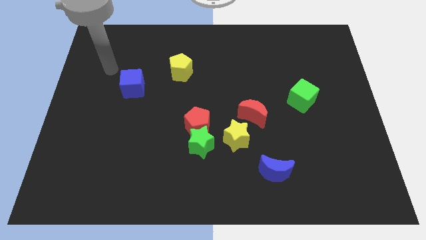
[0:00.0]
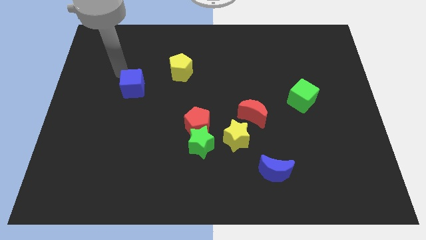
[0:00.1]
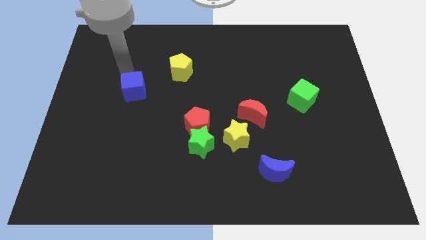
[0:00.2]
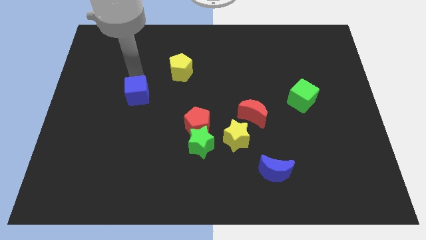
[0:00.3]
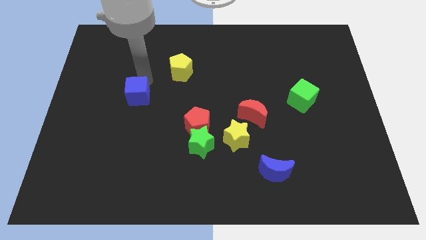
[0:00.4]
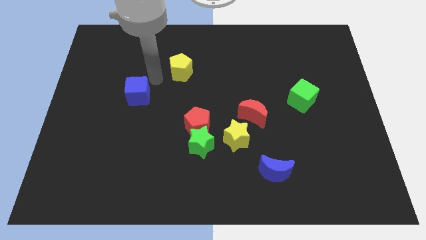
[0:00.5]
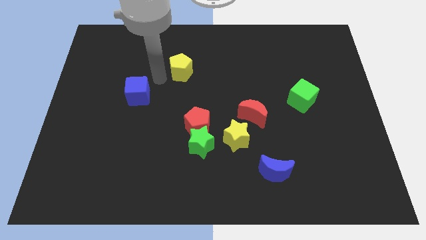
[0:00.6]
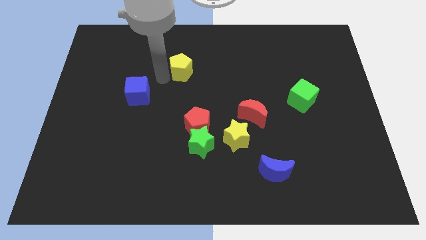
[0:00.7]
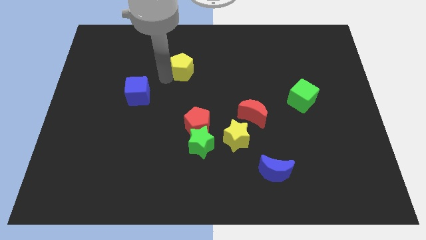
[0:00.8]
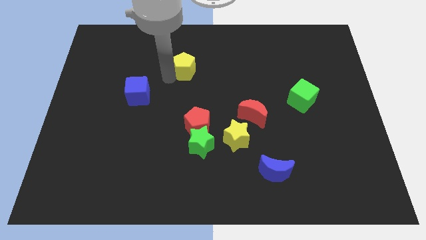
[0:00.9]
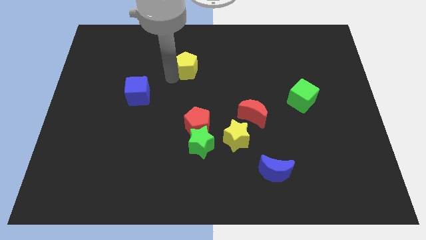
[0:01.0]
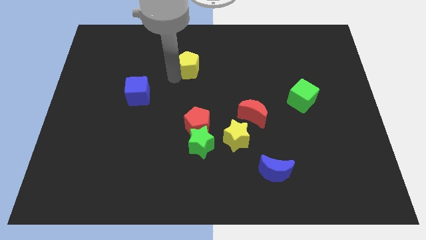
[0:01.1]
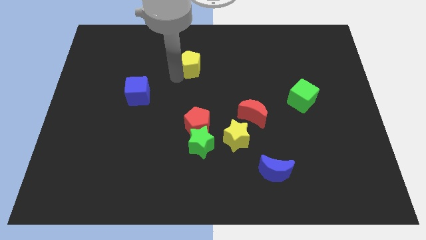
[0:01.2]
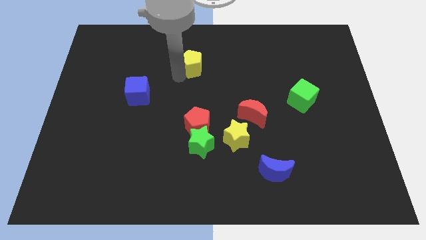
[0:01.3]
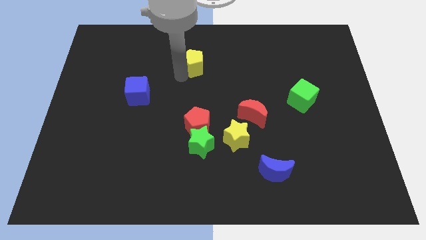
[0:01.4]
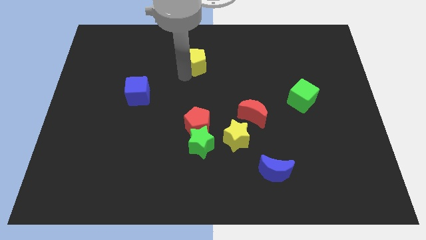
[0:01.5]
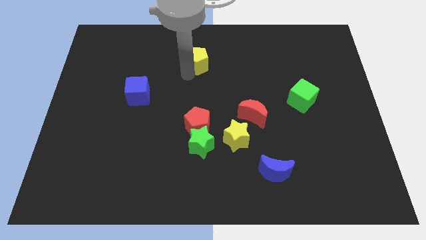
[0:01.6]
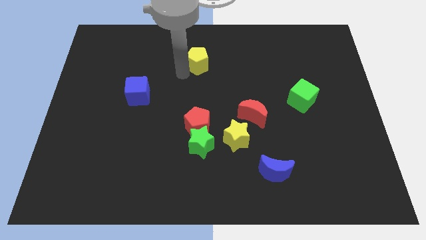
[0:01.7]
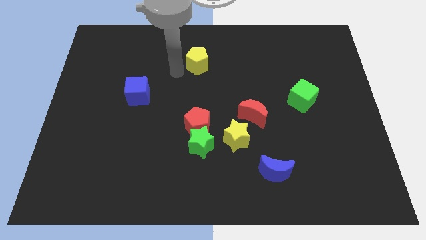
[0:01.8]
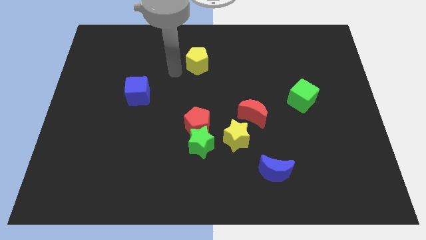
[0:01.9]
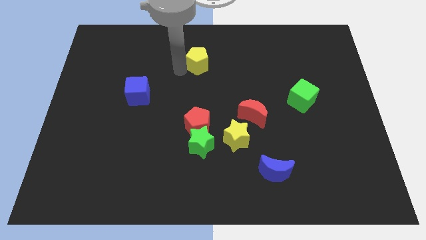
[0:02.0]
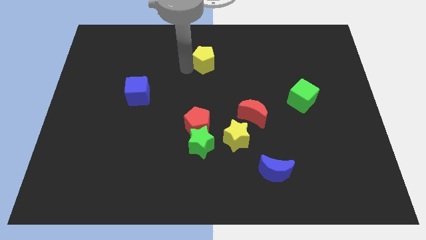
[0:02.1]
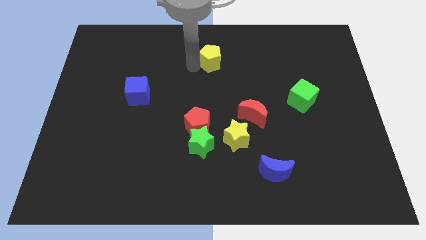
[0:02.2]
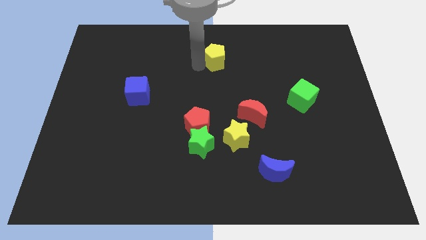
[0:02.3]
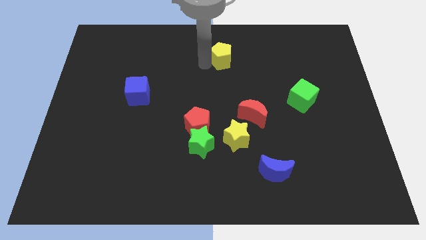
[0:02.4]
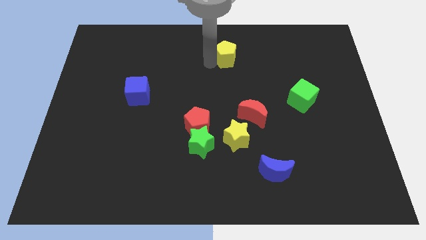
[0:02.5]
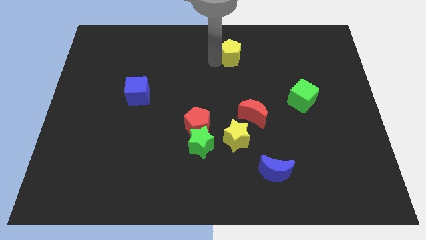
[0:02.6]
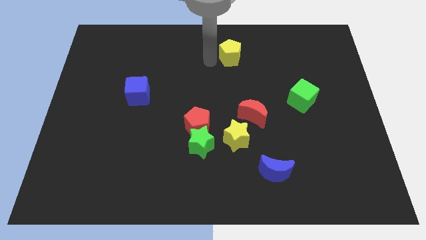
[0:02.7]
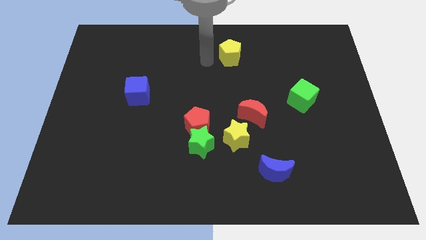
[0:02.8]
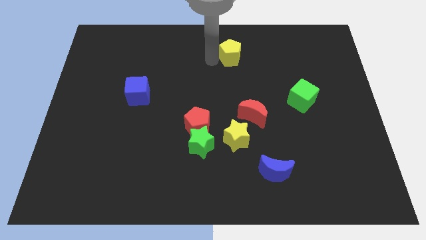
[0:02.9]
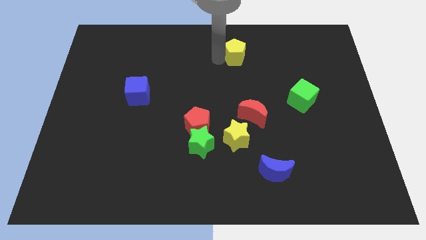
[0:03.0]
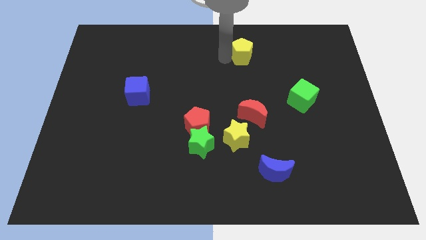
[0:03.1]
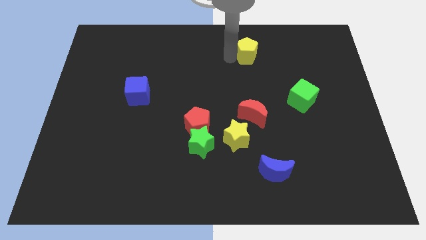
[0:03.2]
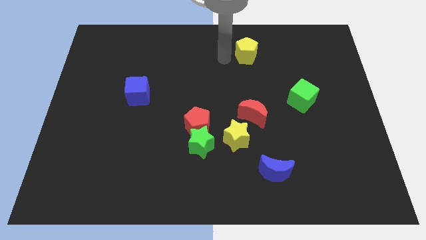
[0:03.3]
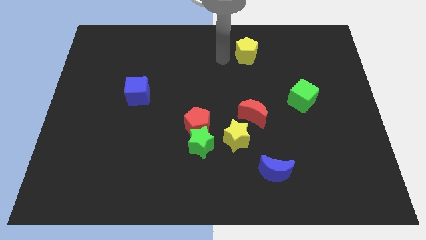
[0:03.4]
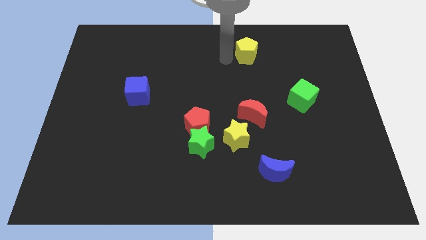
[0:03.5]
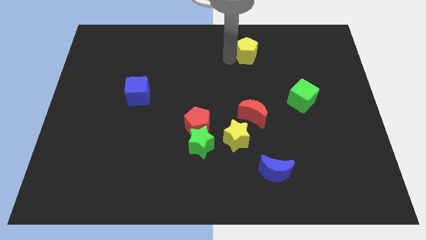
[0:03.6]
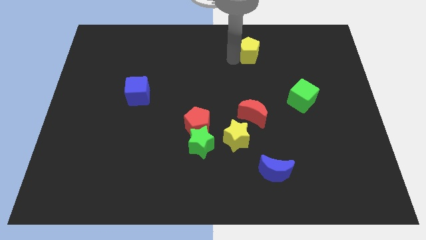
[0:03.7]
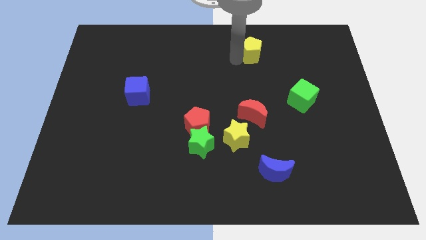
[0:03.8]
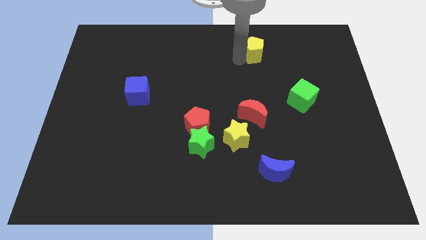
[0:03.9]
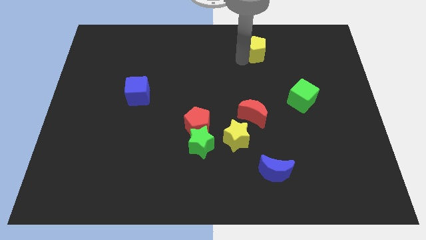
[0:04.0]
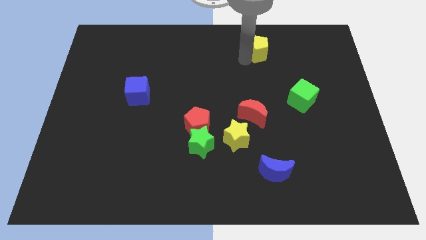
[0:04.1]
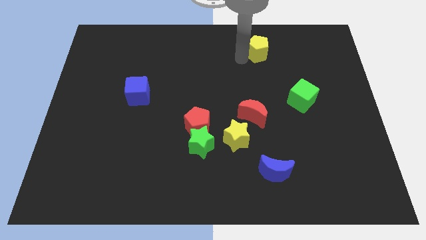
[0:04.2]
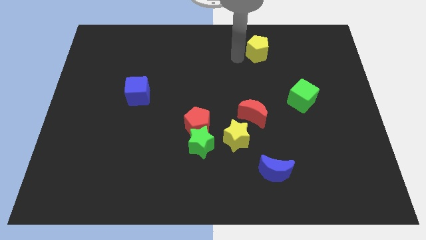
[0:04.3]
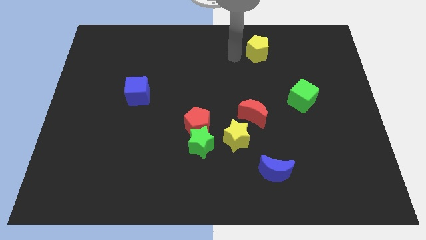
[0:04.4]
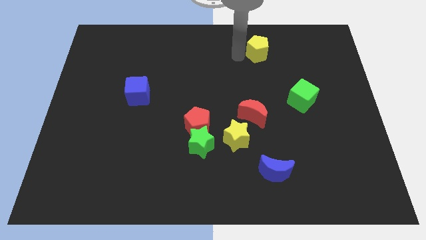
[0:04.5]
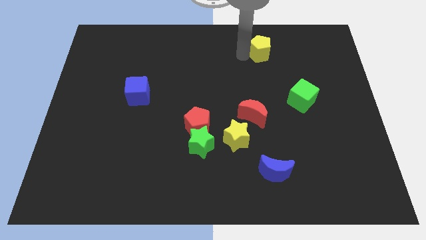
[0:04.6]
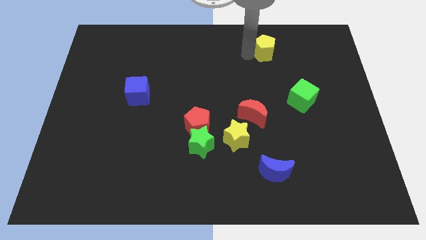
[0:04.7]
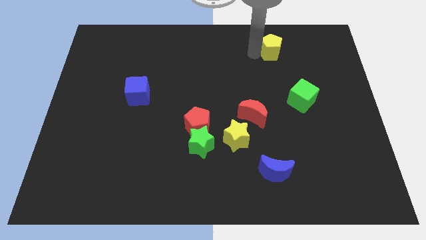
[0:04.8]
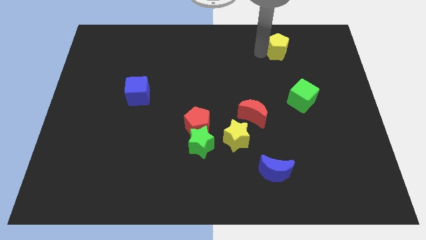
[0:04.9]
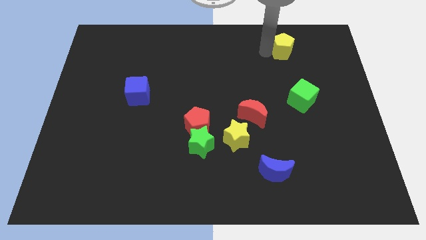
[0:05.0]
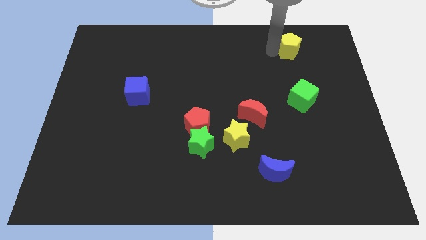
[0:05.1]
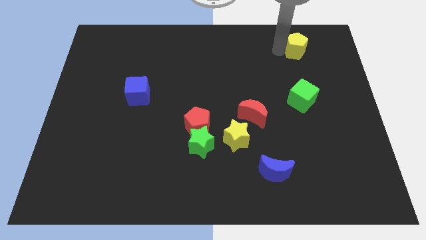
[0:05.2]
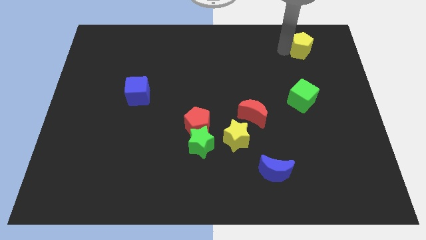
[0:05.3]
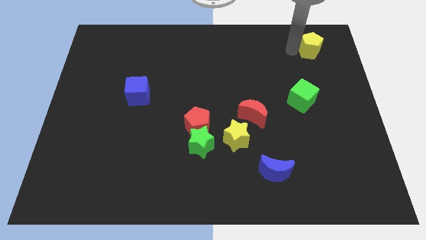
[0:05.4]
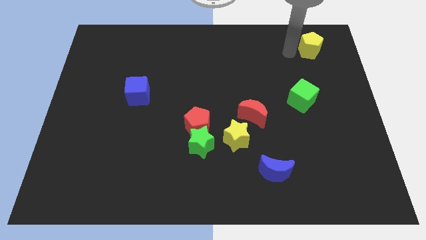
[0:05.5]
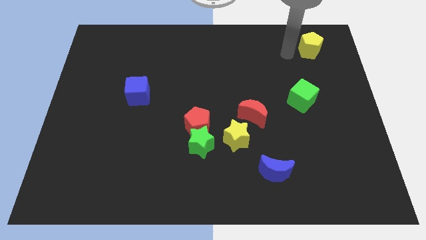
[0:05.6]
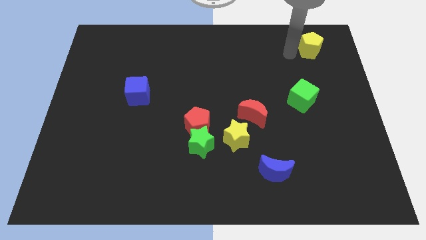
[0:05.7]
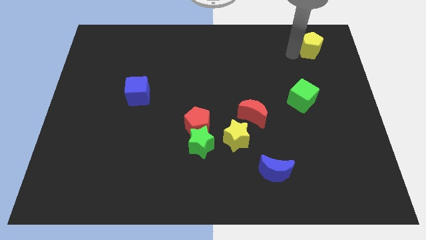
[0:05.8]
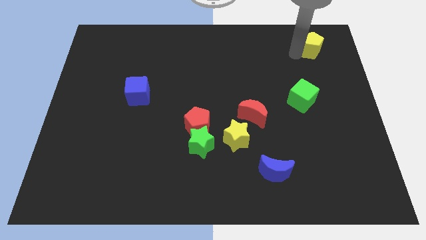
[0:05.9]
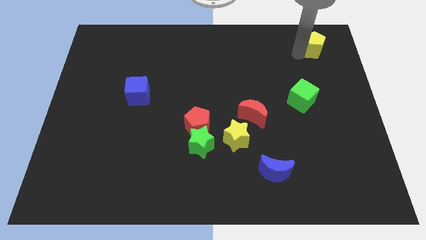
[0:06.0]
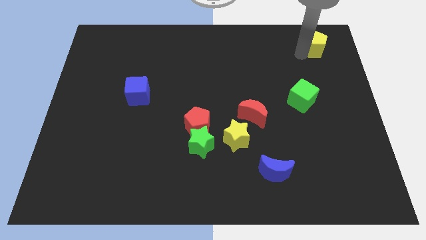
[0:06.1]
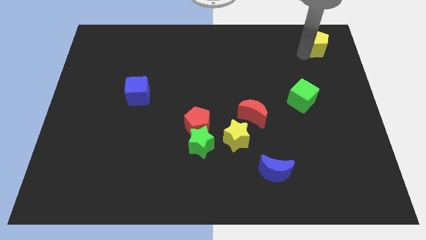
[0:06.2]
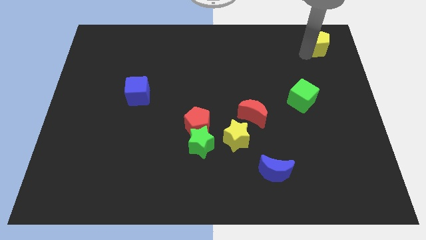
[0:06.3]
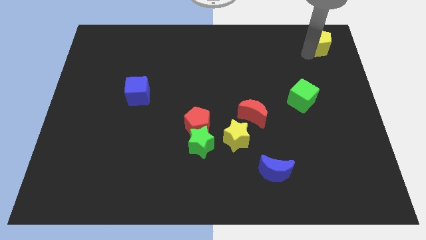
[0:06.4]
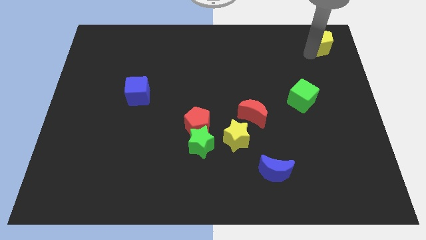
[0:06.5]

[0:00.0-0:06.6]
slide the yellow pentagon to the top right corner
